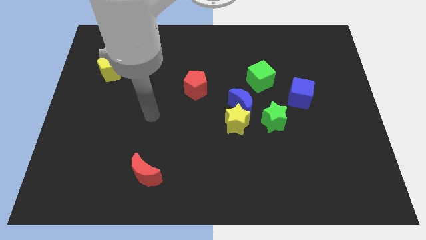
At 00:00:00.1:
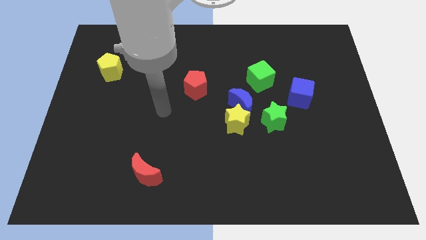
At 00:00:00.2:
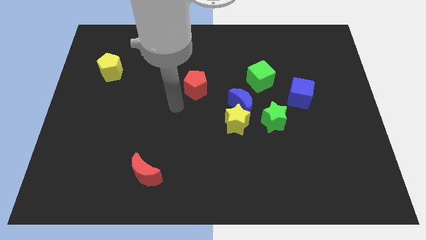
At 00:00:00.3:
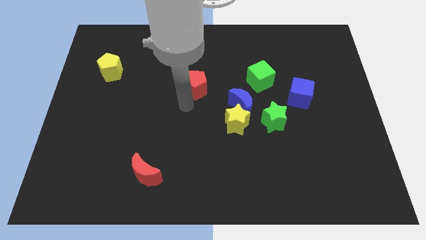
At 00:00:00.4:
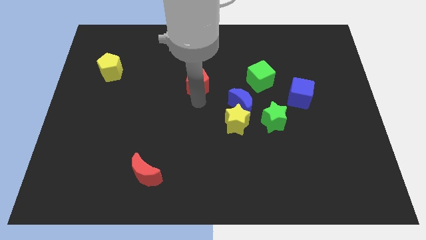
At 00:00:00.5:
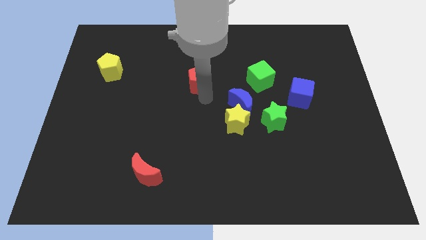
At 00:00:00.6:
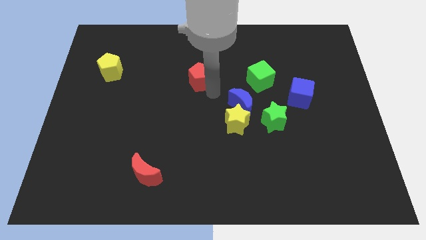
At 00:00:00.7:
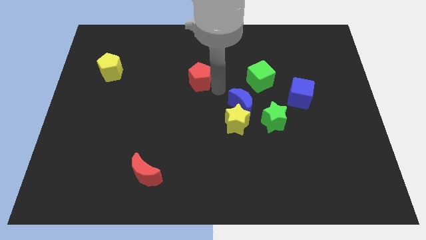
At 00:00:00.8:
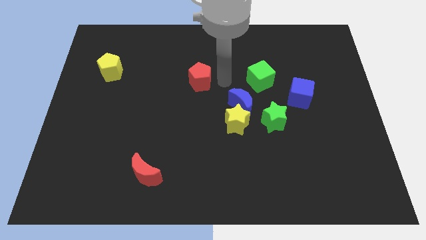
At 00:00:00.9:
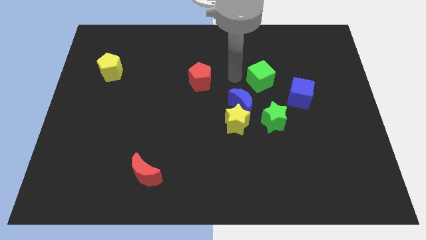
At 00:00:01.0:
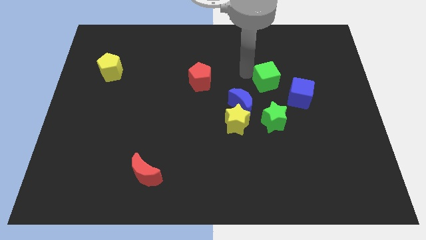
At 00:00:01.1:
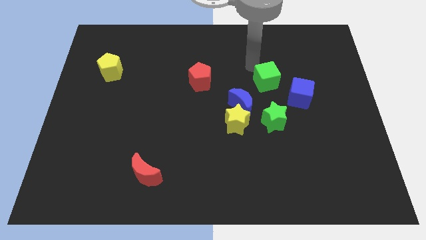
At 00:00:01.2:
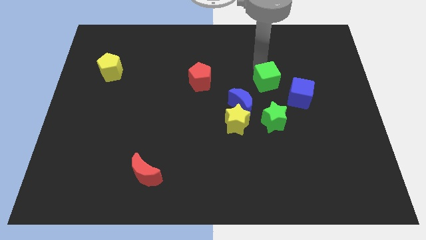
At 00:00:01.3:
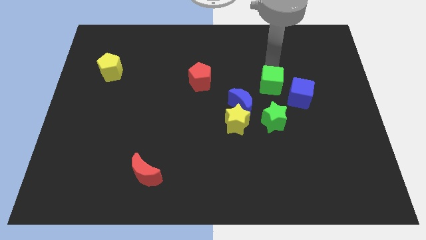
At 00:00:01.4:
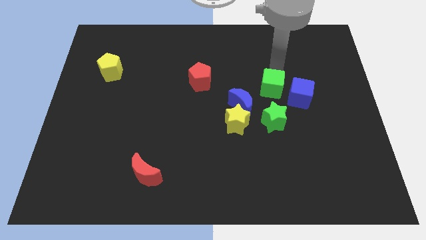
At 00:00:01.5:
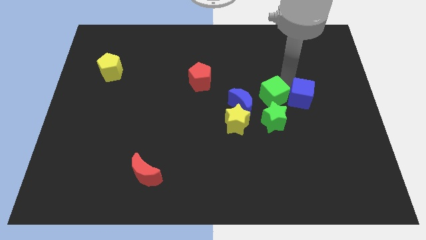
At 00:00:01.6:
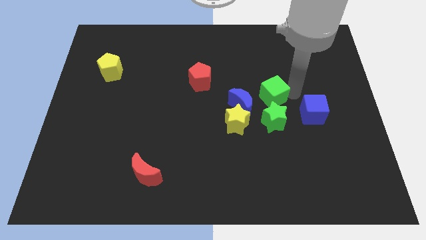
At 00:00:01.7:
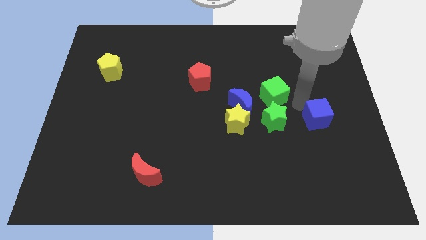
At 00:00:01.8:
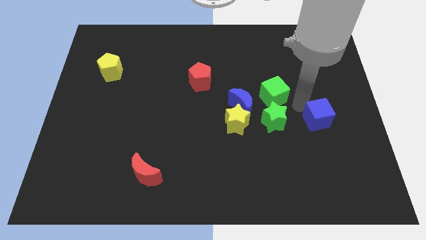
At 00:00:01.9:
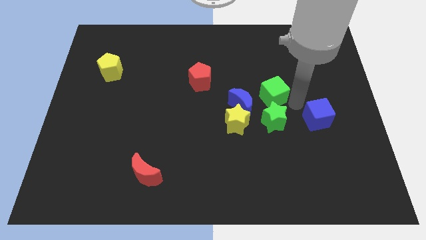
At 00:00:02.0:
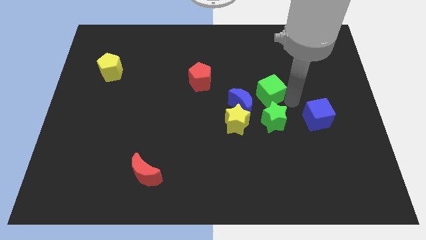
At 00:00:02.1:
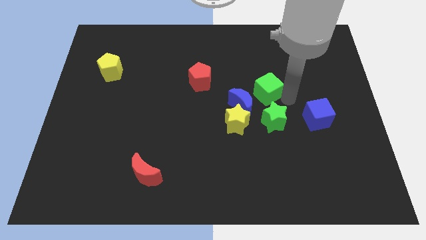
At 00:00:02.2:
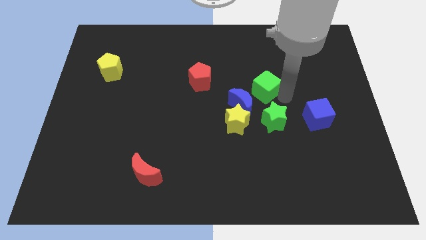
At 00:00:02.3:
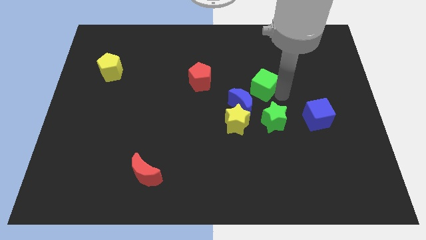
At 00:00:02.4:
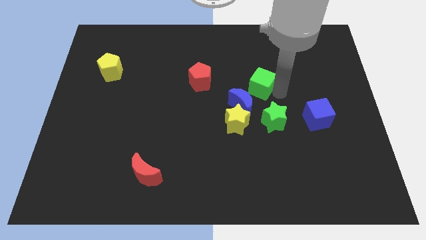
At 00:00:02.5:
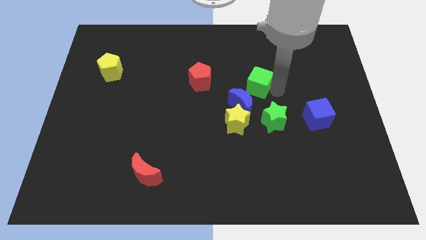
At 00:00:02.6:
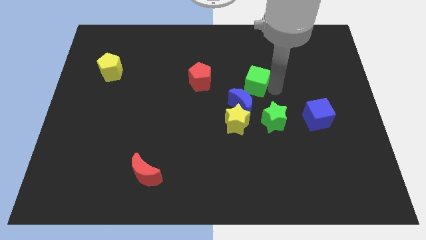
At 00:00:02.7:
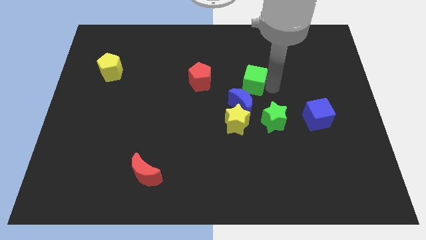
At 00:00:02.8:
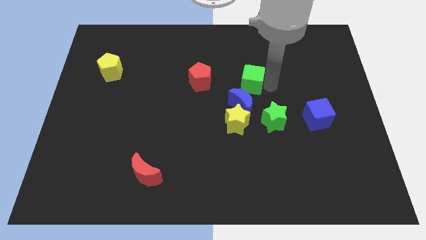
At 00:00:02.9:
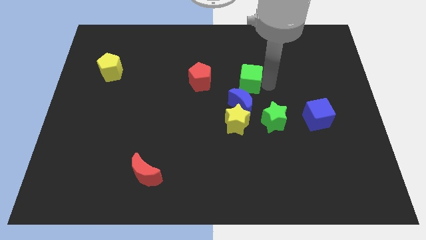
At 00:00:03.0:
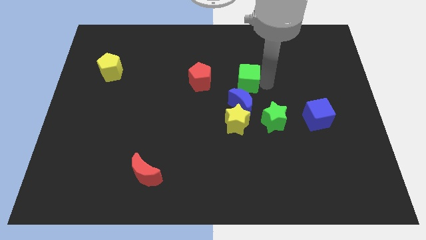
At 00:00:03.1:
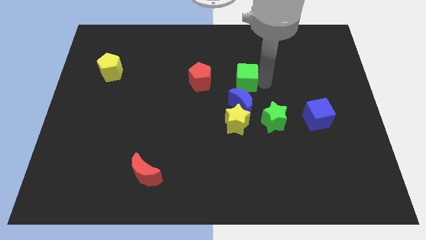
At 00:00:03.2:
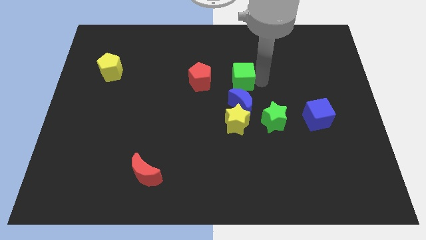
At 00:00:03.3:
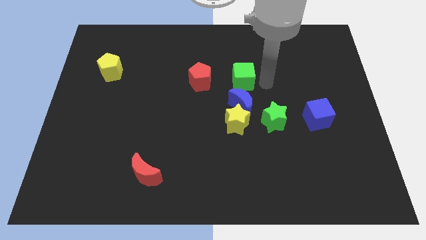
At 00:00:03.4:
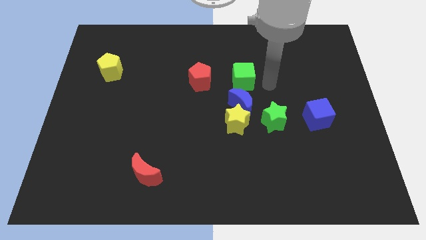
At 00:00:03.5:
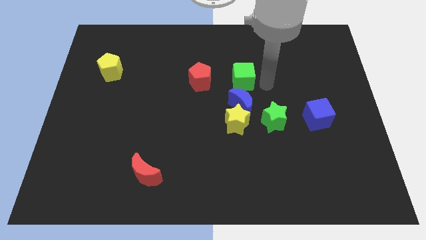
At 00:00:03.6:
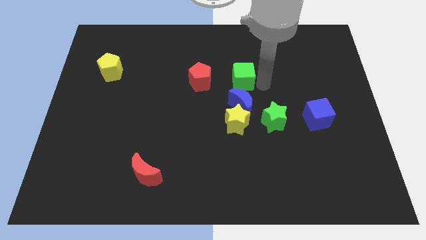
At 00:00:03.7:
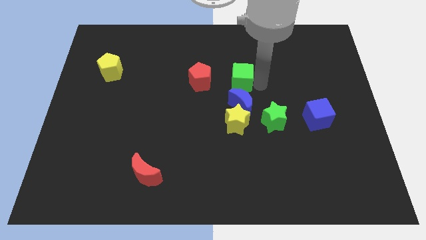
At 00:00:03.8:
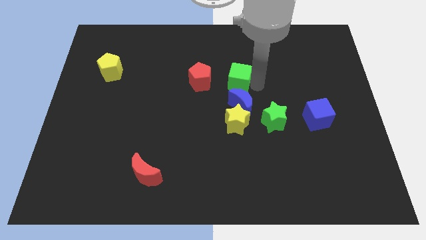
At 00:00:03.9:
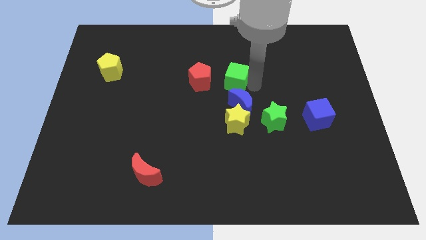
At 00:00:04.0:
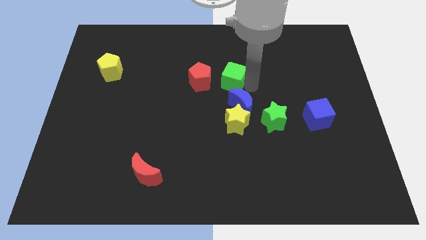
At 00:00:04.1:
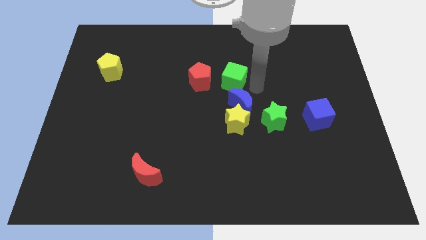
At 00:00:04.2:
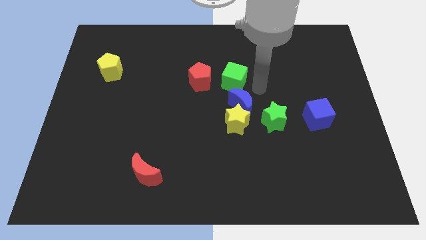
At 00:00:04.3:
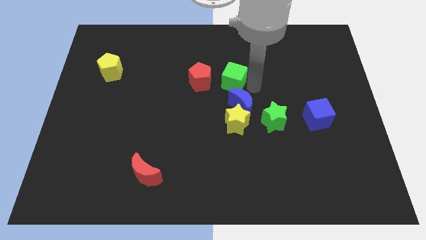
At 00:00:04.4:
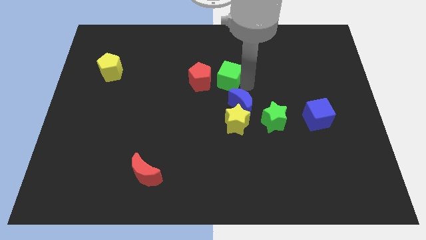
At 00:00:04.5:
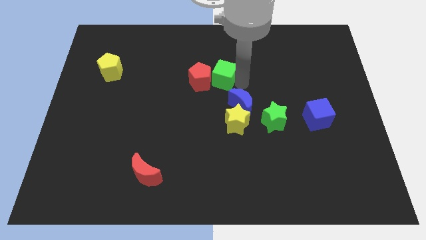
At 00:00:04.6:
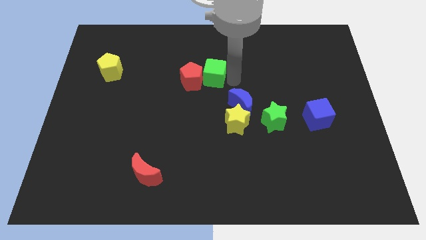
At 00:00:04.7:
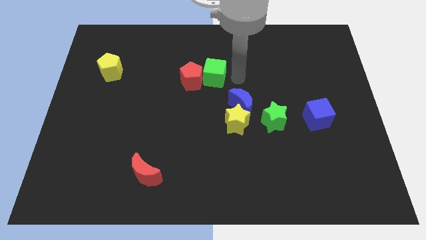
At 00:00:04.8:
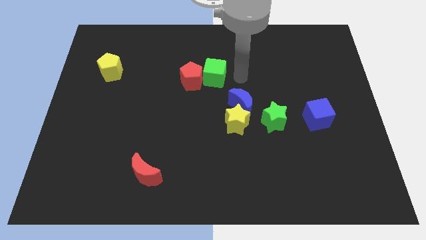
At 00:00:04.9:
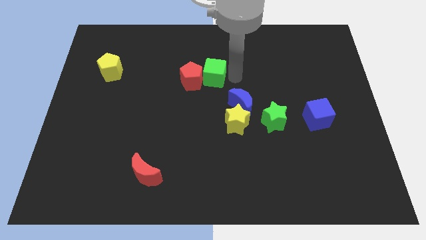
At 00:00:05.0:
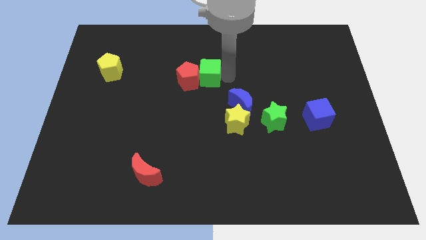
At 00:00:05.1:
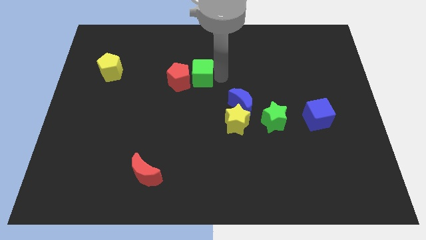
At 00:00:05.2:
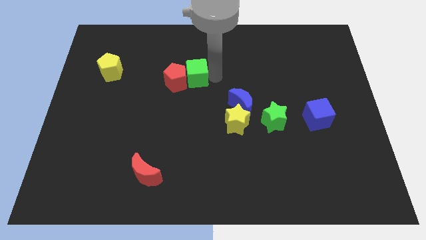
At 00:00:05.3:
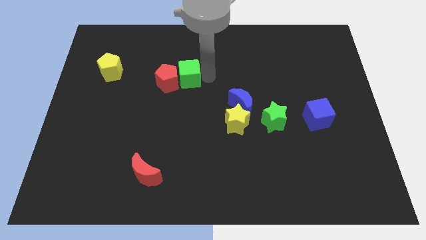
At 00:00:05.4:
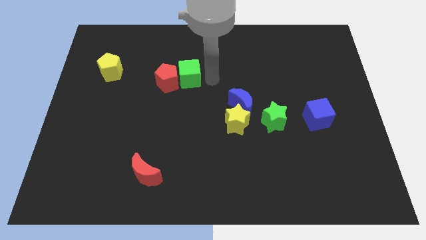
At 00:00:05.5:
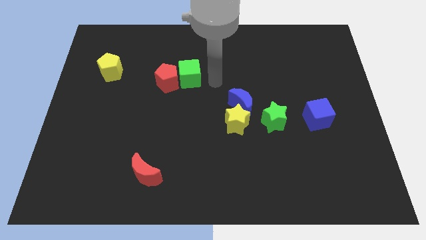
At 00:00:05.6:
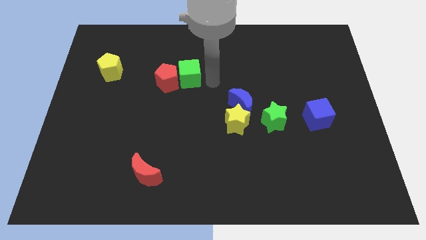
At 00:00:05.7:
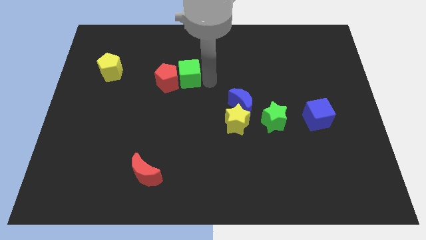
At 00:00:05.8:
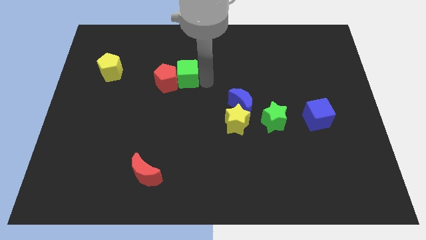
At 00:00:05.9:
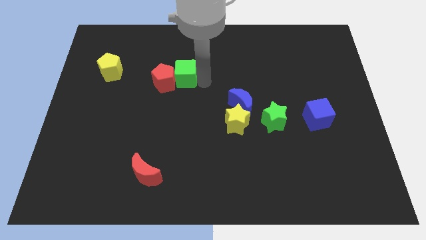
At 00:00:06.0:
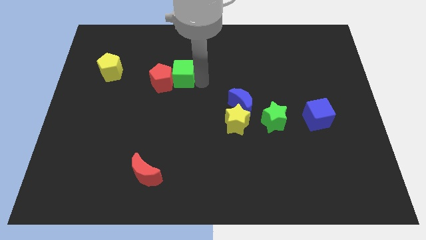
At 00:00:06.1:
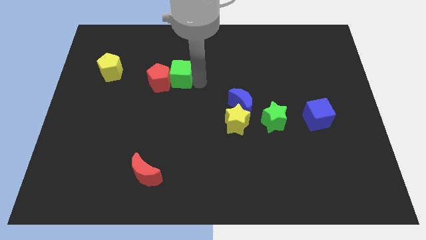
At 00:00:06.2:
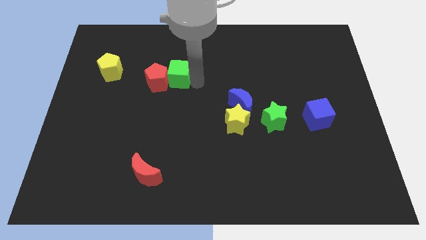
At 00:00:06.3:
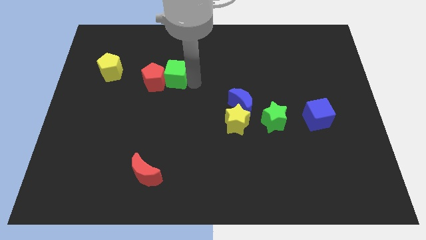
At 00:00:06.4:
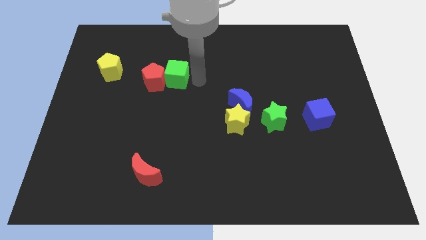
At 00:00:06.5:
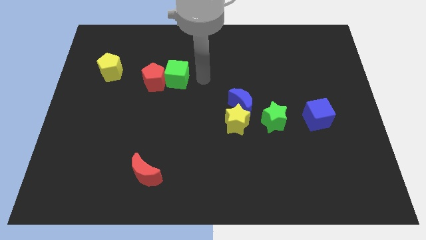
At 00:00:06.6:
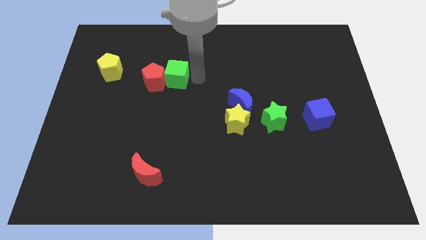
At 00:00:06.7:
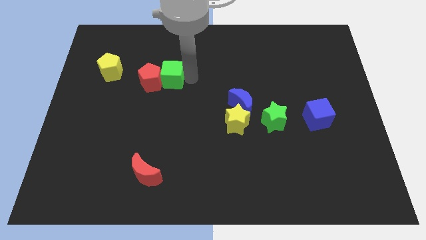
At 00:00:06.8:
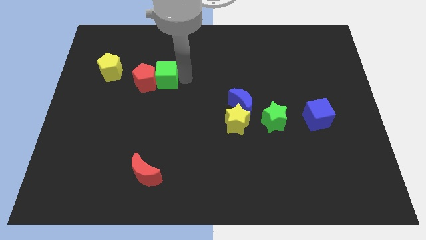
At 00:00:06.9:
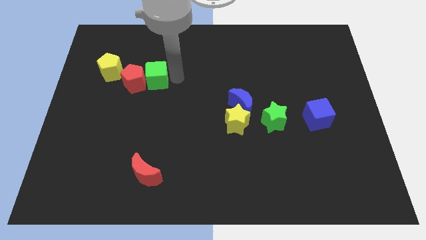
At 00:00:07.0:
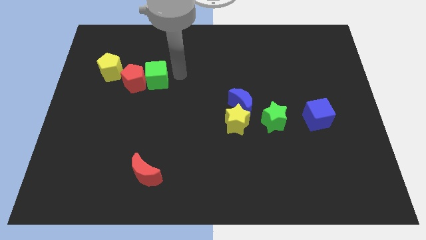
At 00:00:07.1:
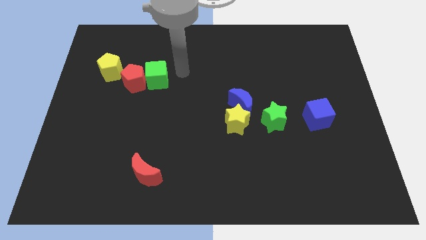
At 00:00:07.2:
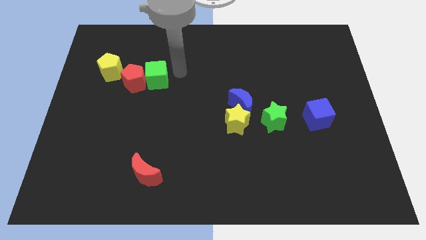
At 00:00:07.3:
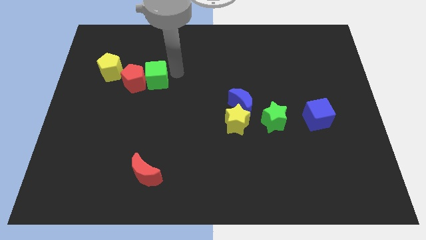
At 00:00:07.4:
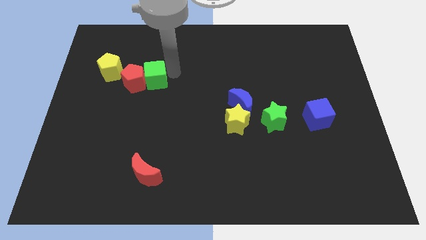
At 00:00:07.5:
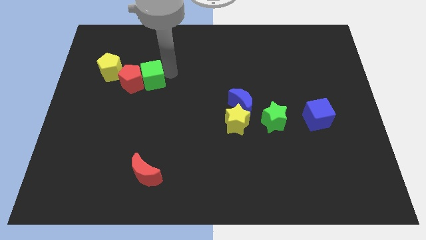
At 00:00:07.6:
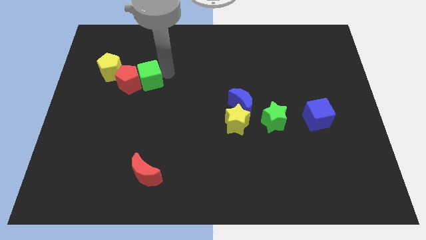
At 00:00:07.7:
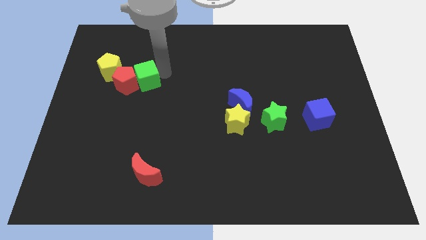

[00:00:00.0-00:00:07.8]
push the green cube to the bottom right of the yellow pentagon
